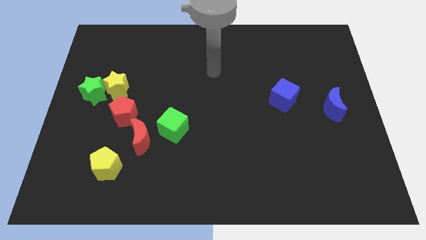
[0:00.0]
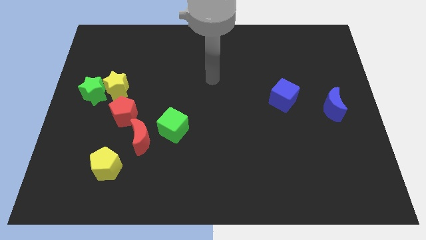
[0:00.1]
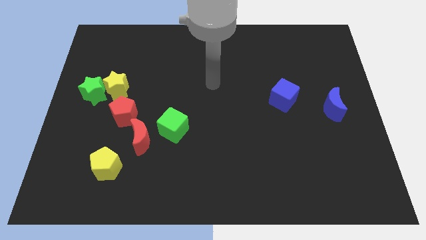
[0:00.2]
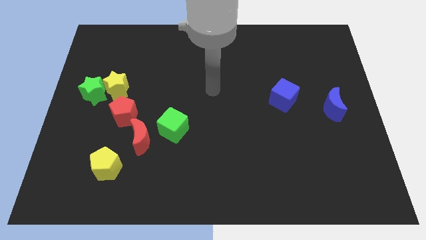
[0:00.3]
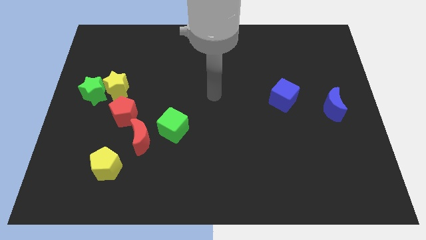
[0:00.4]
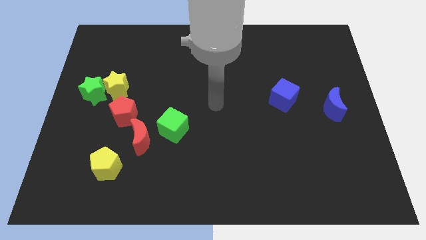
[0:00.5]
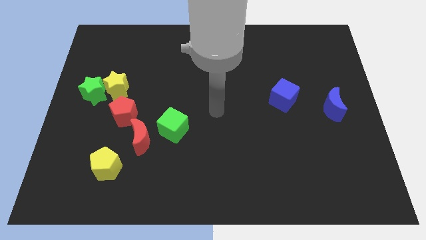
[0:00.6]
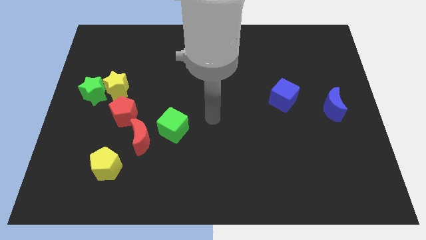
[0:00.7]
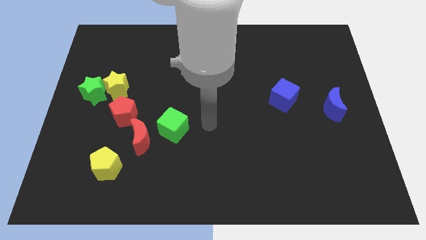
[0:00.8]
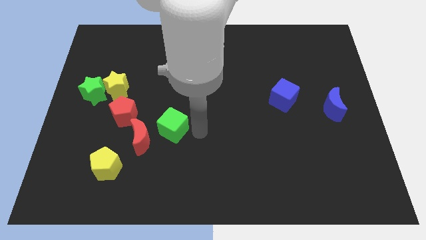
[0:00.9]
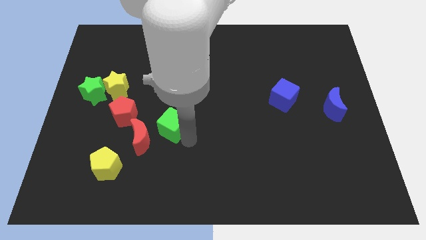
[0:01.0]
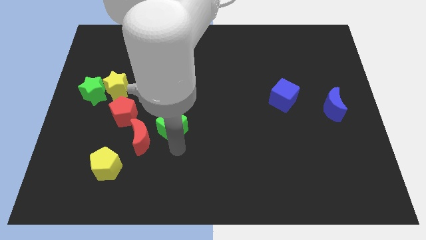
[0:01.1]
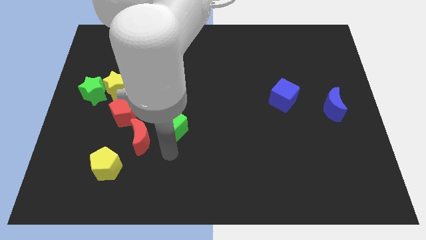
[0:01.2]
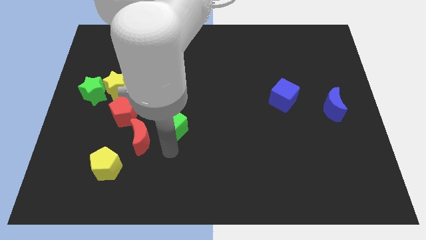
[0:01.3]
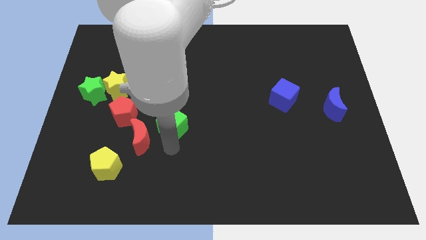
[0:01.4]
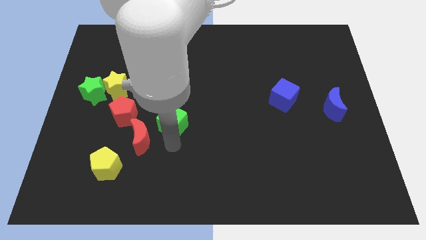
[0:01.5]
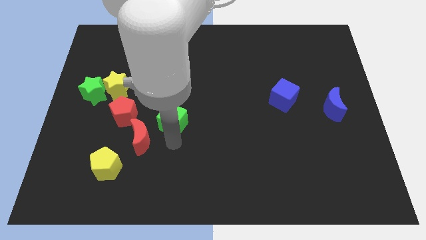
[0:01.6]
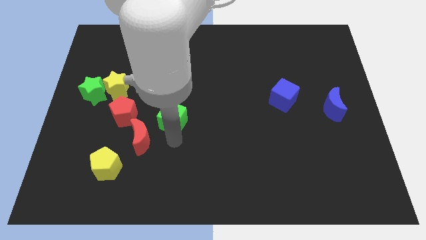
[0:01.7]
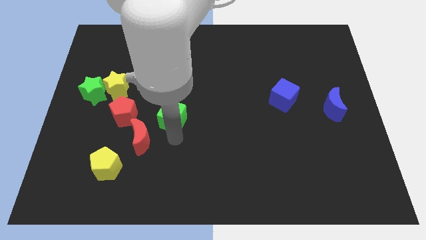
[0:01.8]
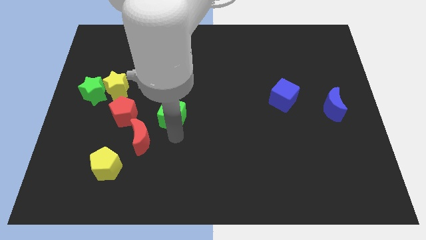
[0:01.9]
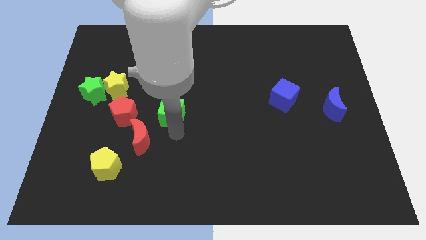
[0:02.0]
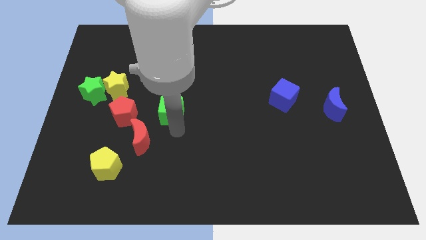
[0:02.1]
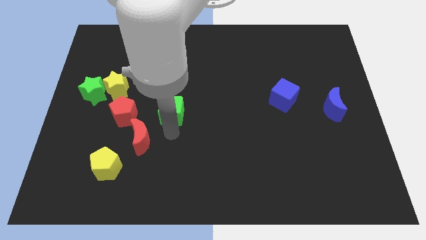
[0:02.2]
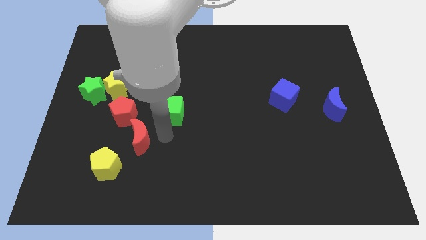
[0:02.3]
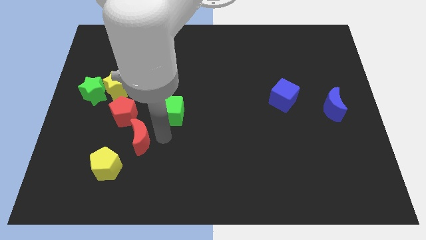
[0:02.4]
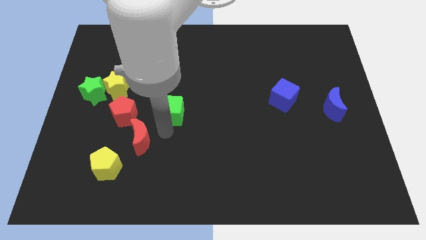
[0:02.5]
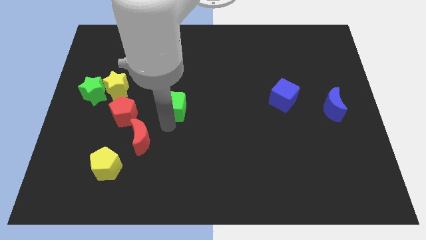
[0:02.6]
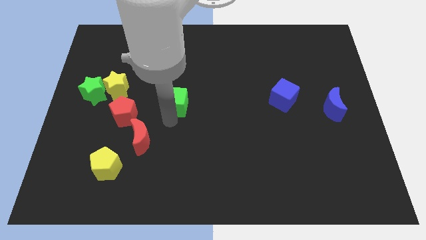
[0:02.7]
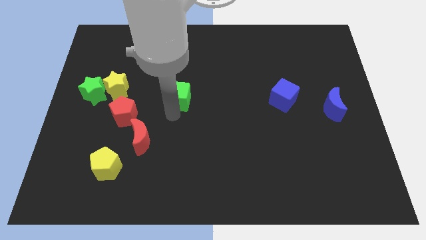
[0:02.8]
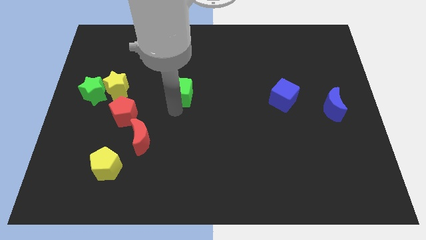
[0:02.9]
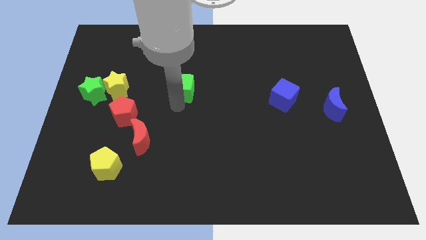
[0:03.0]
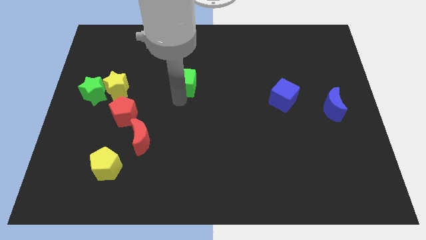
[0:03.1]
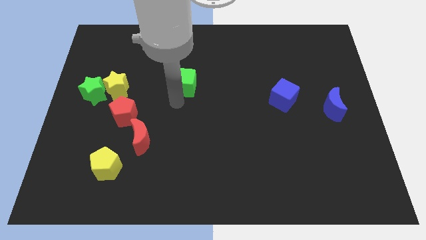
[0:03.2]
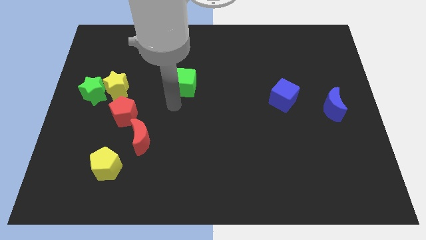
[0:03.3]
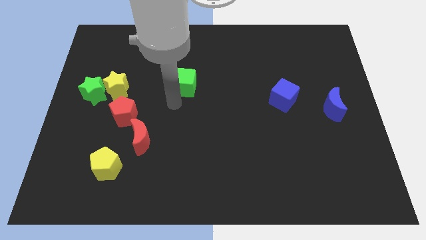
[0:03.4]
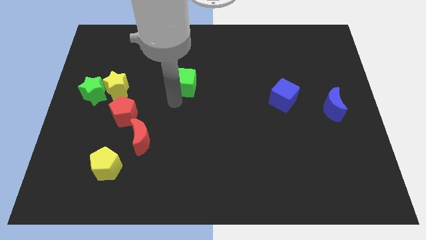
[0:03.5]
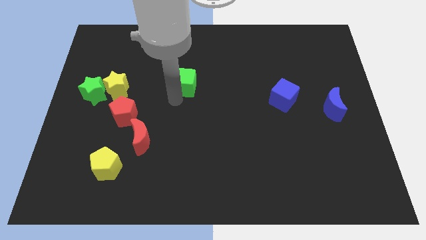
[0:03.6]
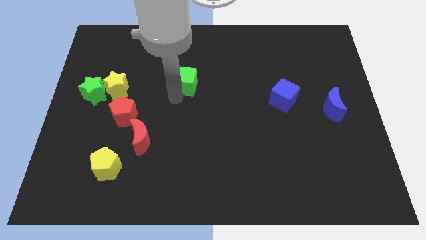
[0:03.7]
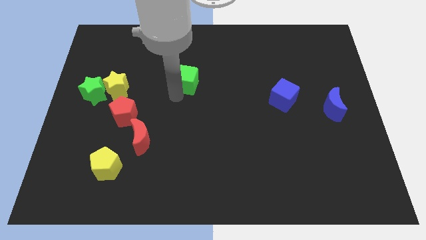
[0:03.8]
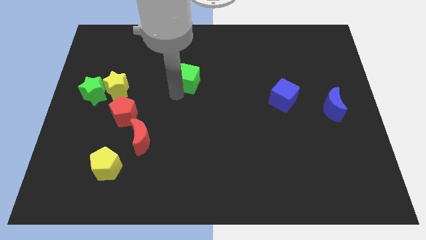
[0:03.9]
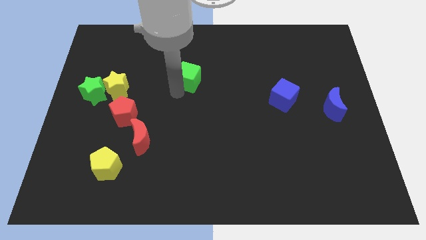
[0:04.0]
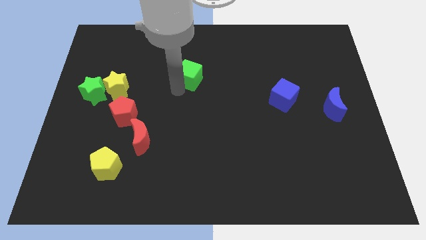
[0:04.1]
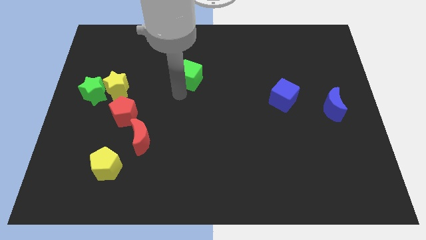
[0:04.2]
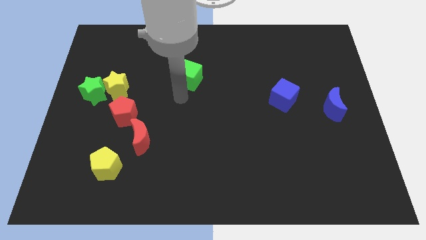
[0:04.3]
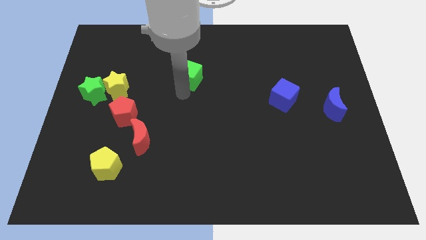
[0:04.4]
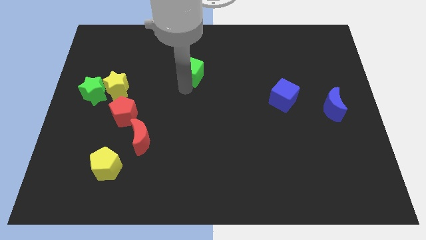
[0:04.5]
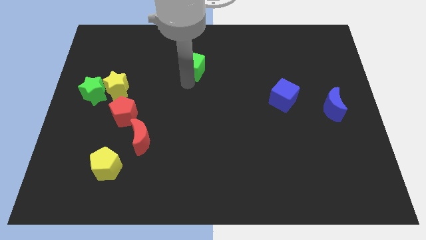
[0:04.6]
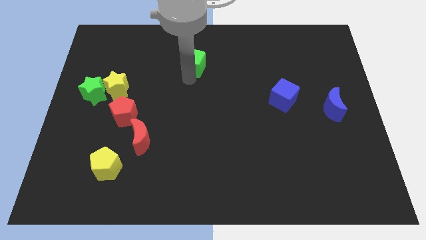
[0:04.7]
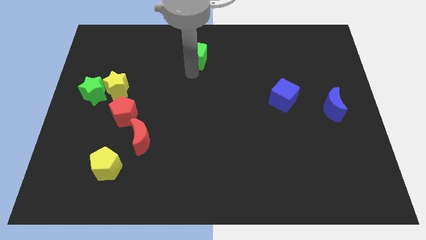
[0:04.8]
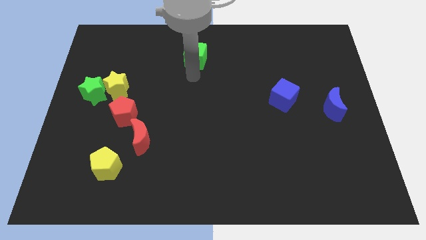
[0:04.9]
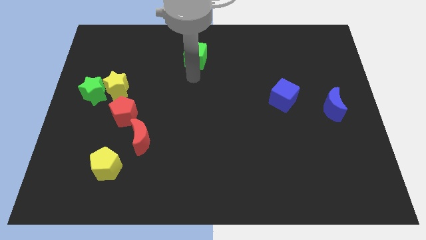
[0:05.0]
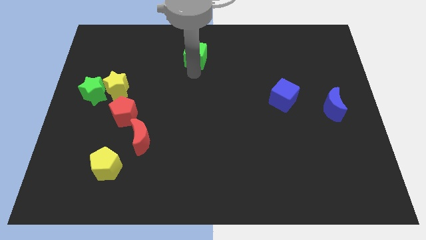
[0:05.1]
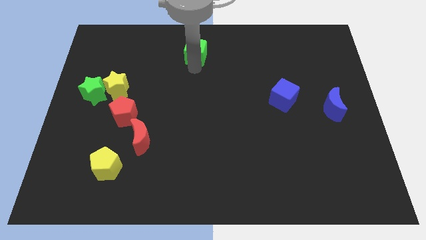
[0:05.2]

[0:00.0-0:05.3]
put the green cube to the towards your base

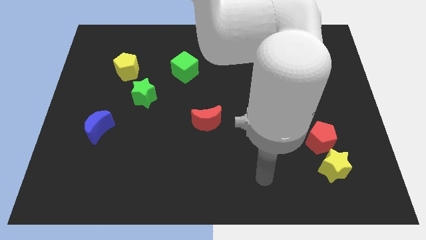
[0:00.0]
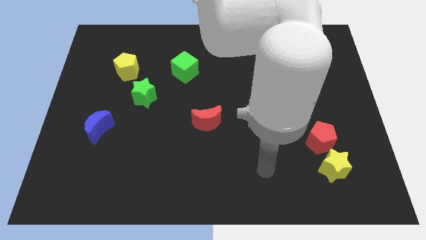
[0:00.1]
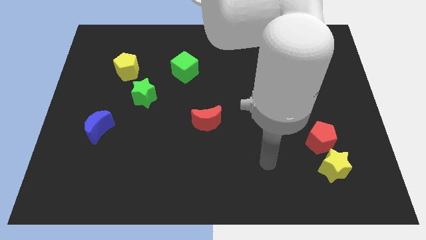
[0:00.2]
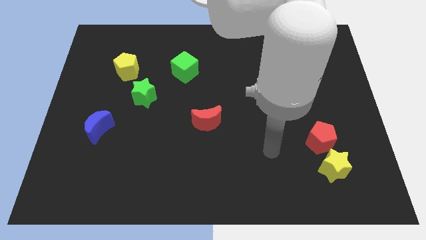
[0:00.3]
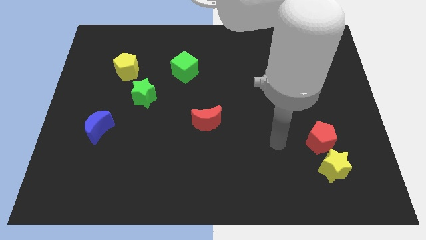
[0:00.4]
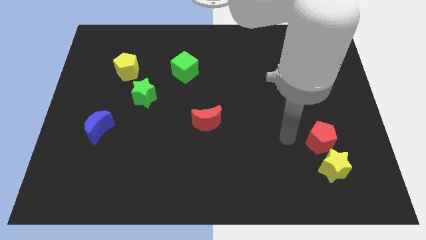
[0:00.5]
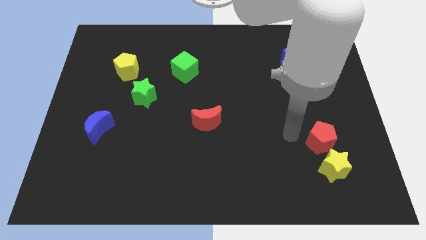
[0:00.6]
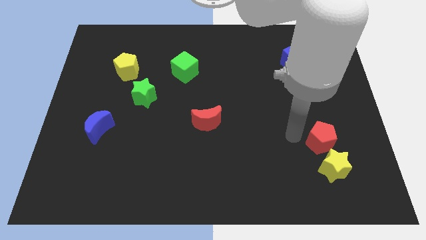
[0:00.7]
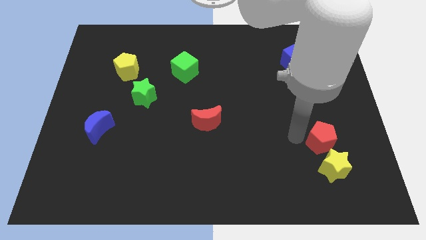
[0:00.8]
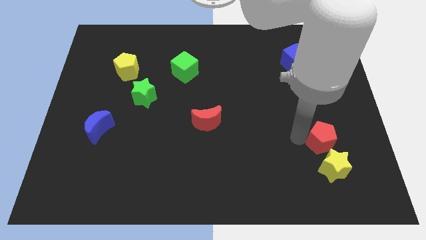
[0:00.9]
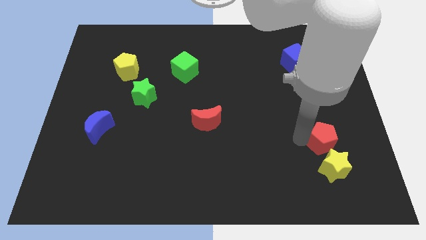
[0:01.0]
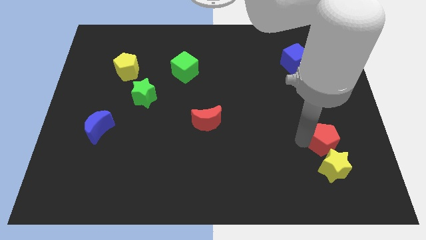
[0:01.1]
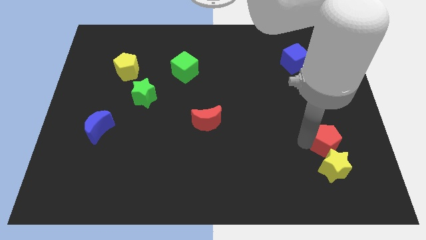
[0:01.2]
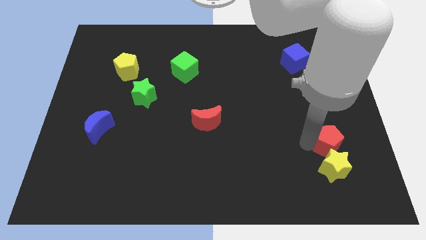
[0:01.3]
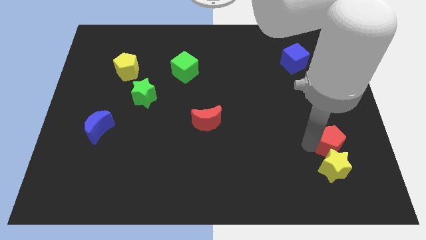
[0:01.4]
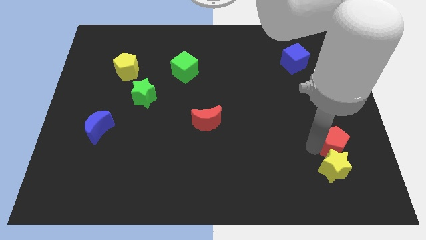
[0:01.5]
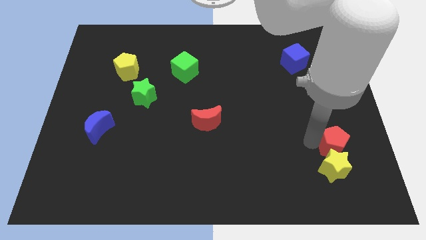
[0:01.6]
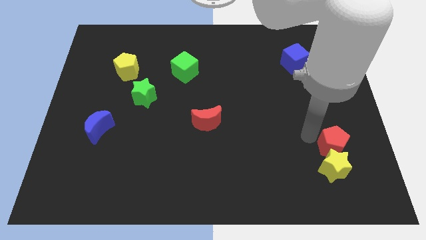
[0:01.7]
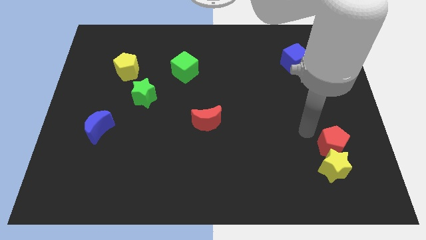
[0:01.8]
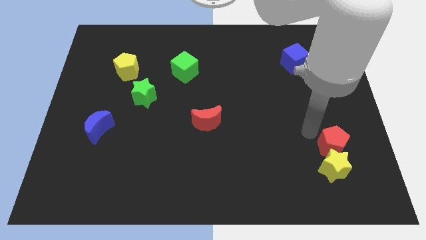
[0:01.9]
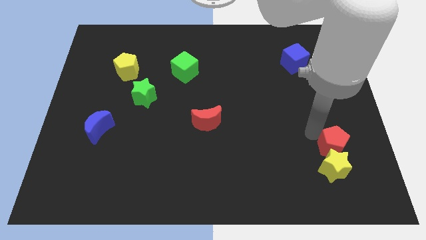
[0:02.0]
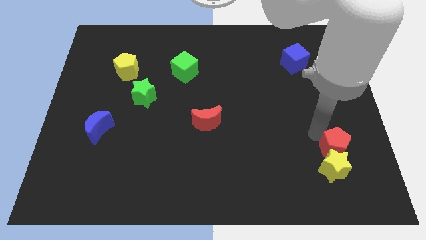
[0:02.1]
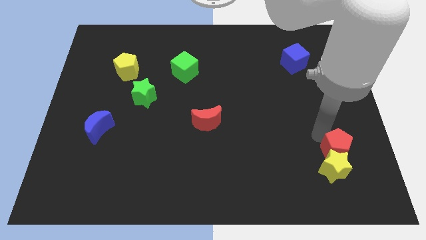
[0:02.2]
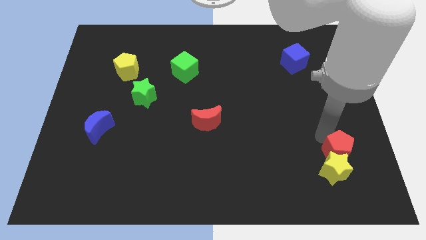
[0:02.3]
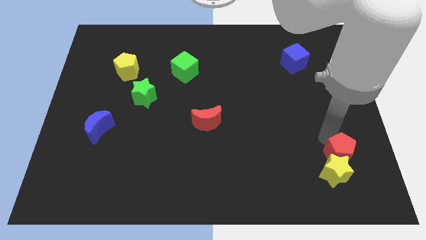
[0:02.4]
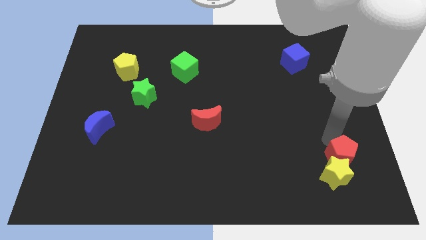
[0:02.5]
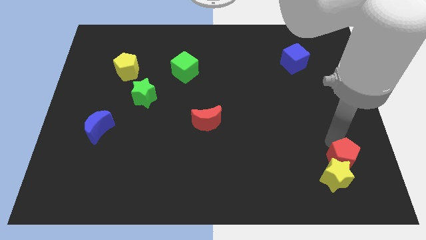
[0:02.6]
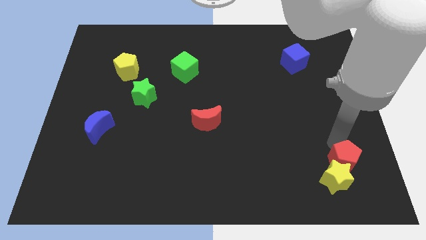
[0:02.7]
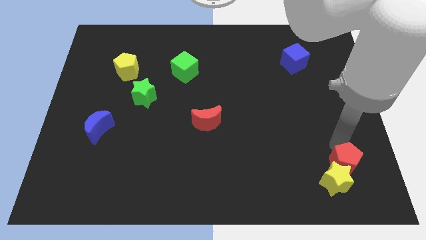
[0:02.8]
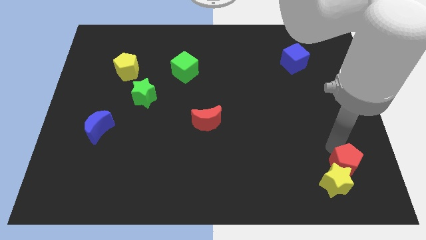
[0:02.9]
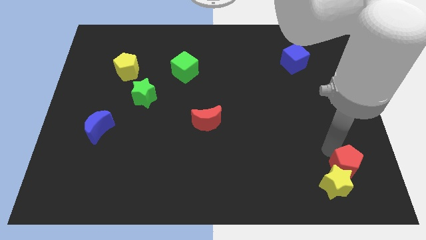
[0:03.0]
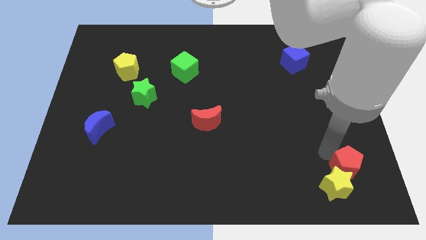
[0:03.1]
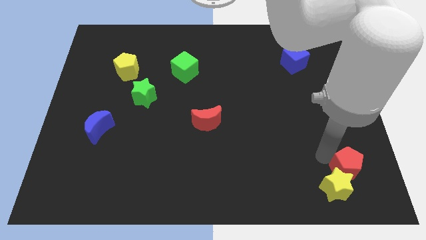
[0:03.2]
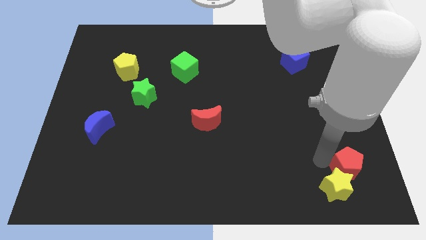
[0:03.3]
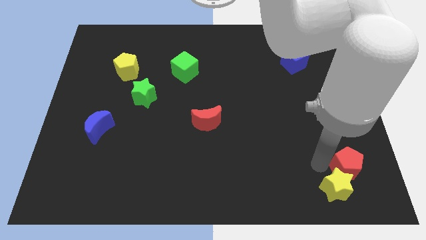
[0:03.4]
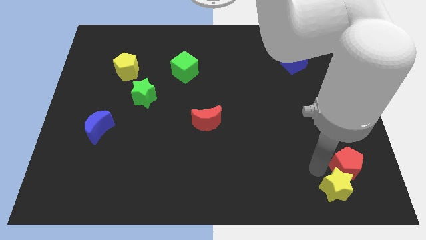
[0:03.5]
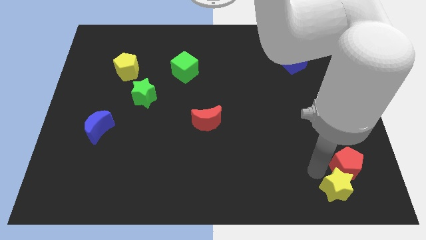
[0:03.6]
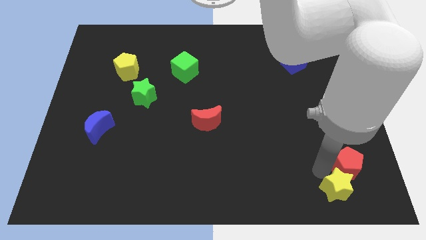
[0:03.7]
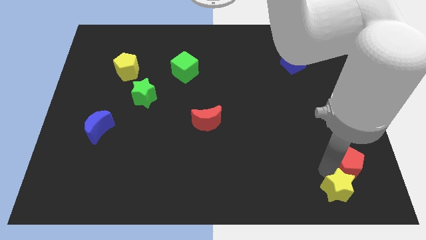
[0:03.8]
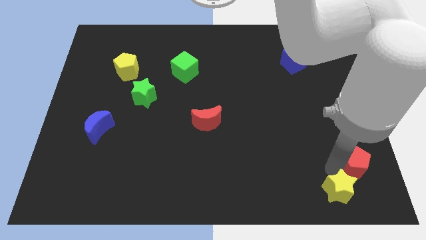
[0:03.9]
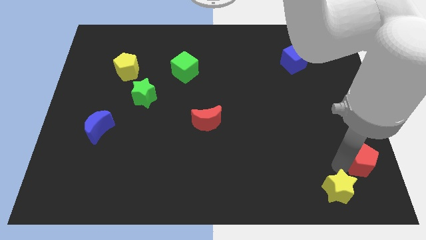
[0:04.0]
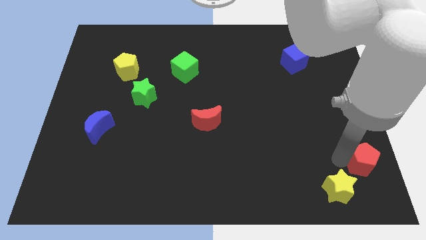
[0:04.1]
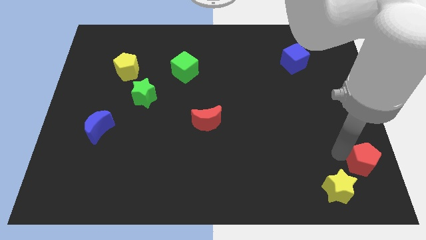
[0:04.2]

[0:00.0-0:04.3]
move the red pentagon to the bottom right
